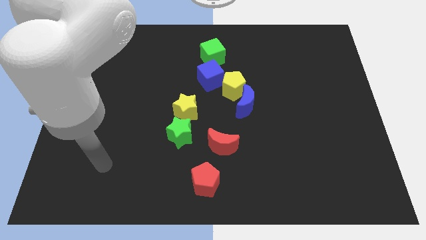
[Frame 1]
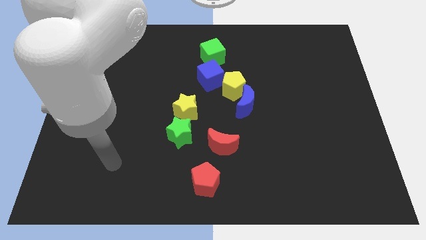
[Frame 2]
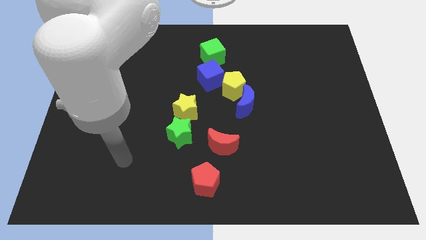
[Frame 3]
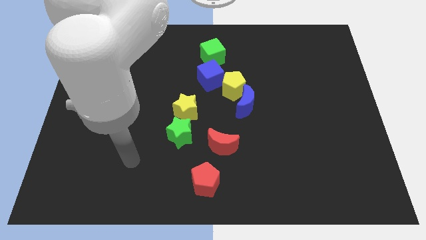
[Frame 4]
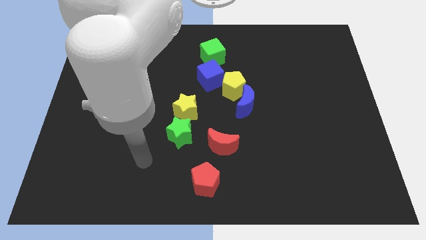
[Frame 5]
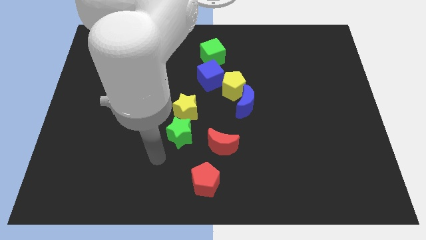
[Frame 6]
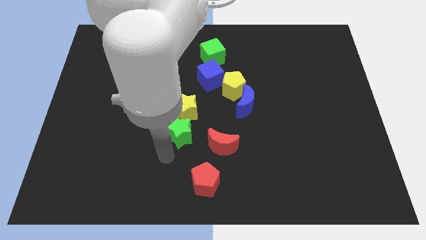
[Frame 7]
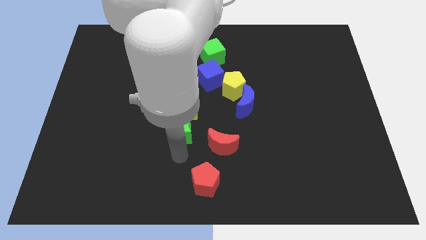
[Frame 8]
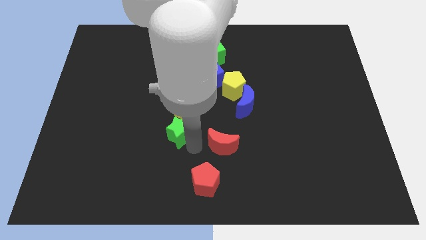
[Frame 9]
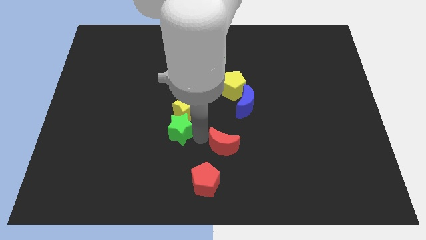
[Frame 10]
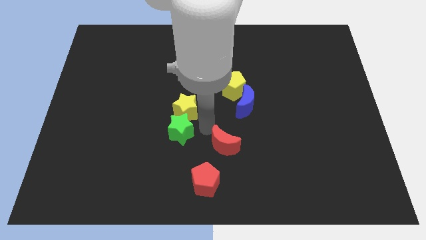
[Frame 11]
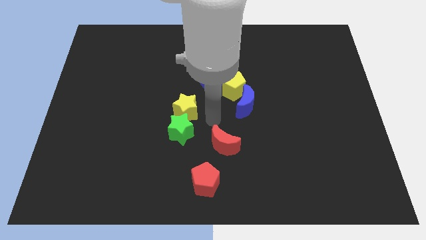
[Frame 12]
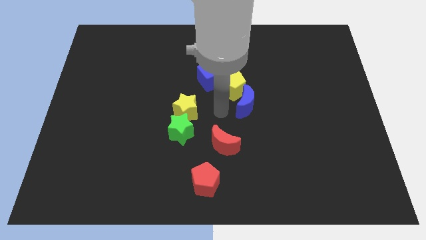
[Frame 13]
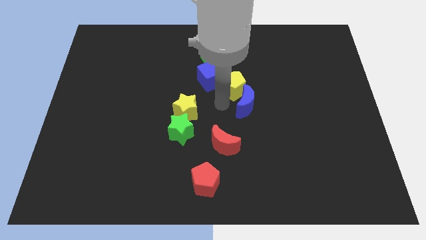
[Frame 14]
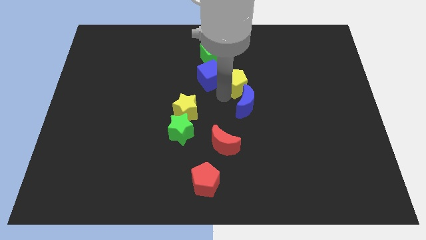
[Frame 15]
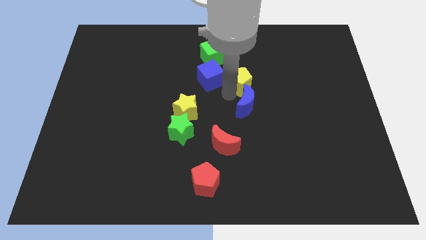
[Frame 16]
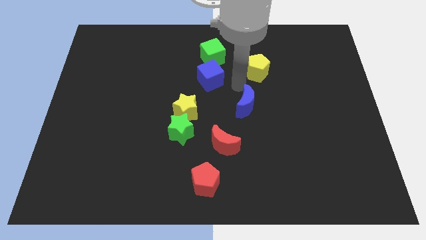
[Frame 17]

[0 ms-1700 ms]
move the blue moon away from the yellow pentagon

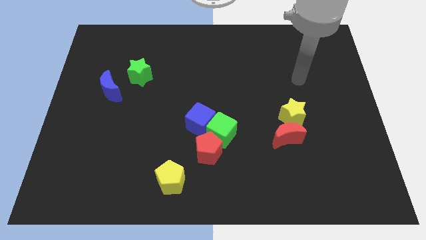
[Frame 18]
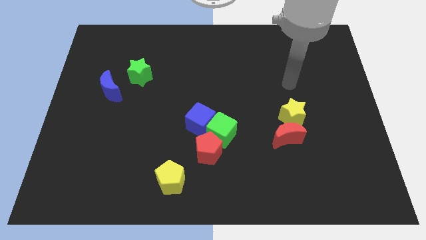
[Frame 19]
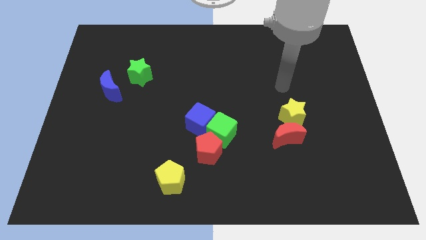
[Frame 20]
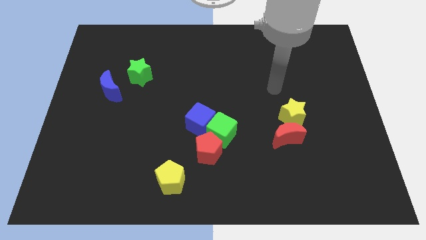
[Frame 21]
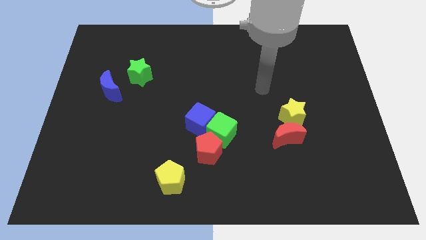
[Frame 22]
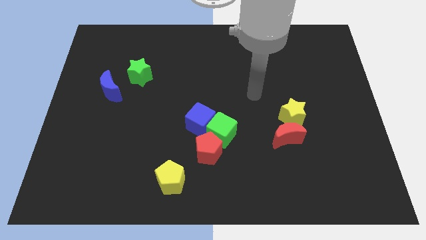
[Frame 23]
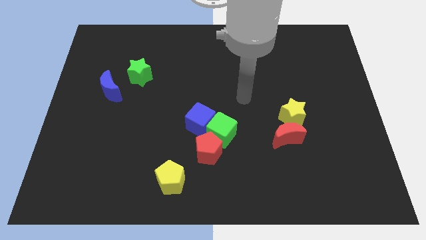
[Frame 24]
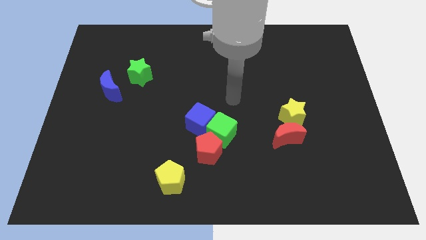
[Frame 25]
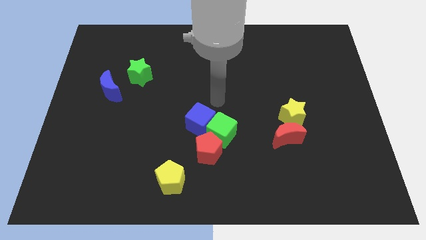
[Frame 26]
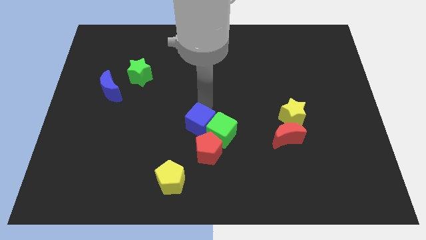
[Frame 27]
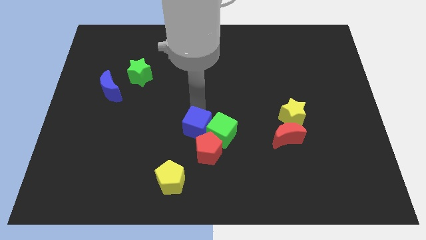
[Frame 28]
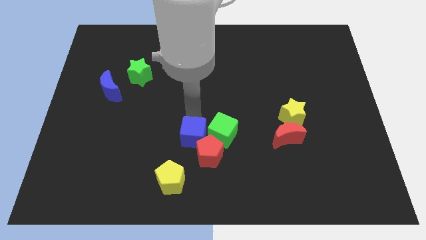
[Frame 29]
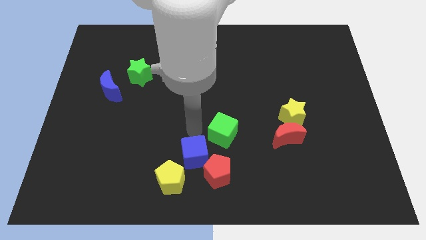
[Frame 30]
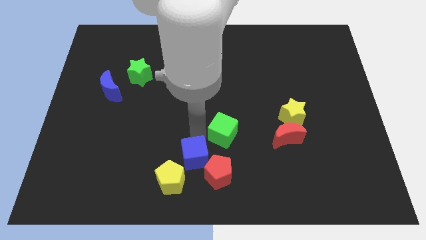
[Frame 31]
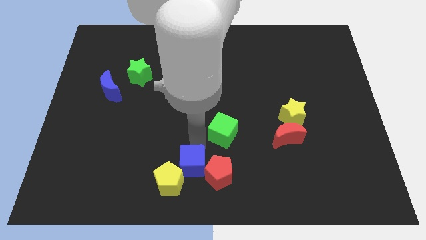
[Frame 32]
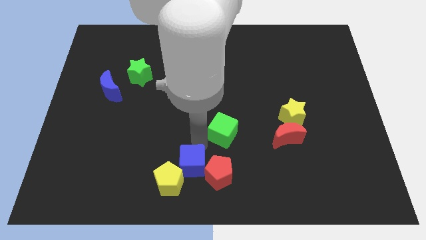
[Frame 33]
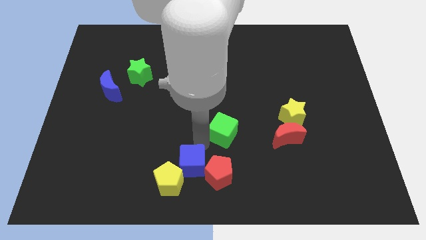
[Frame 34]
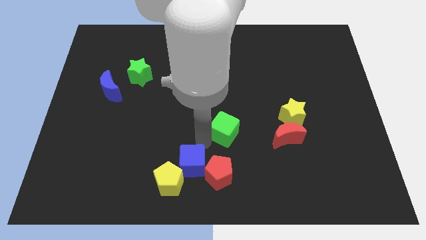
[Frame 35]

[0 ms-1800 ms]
separate the green cube from the blue cube and red pentagon

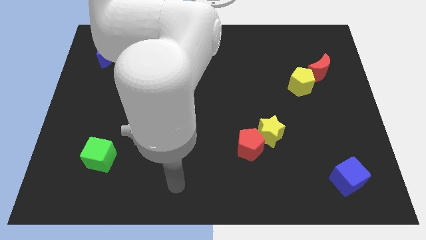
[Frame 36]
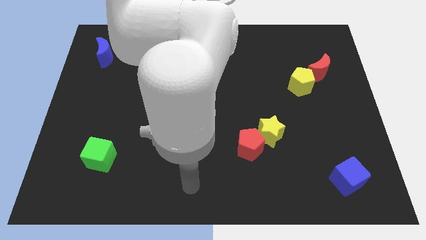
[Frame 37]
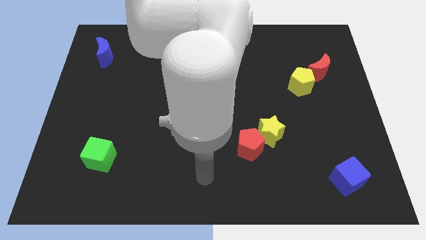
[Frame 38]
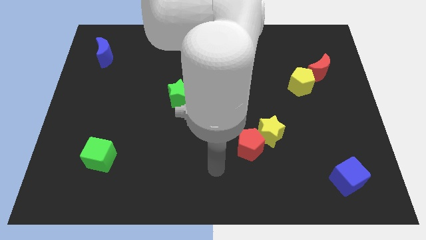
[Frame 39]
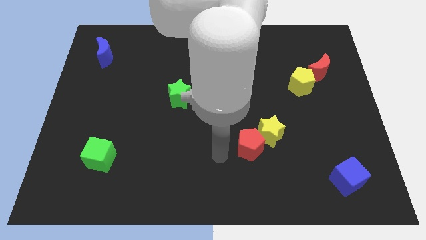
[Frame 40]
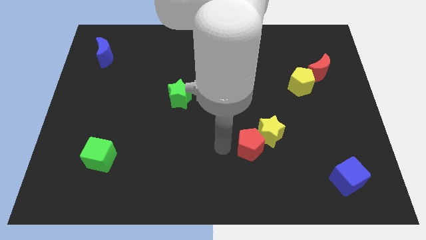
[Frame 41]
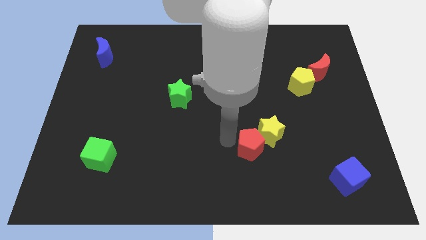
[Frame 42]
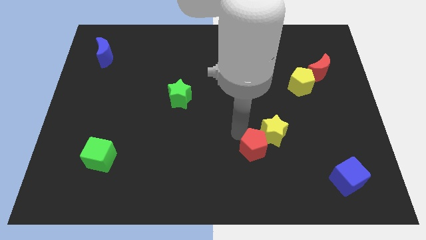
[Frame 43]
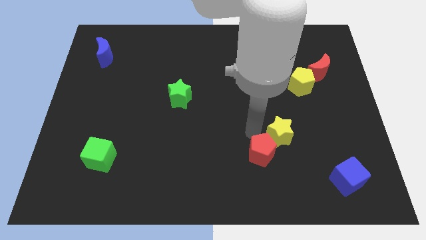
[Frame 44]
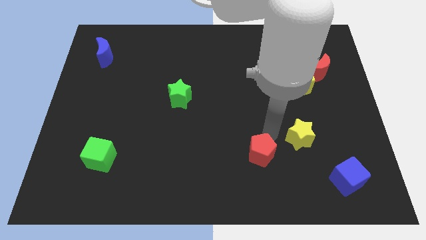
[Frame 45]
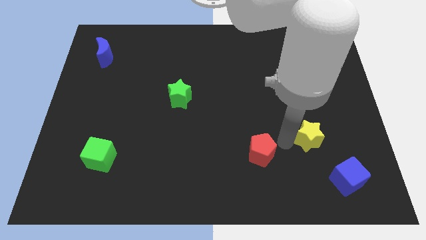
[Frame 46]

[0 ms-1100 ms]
separate the red pentagon from the yellow star

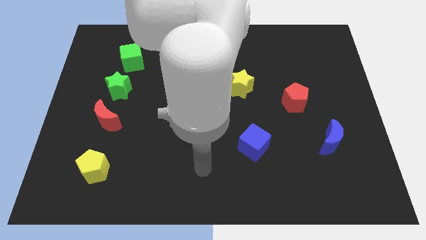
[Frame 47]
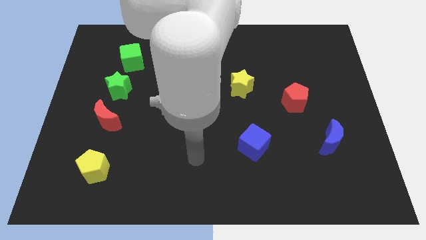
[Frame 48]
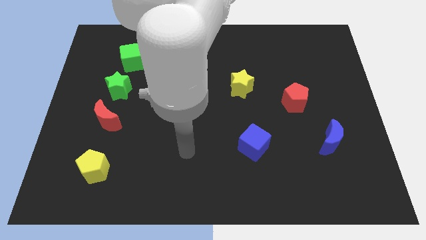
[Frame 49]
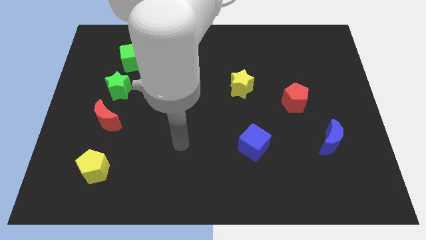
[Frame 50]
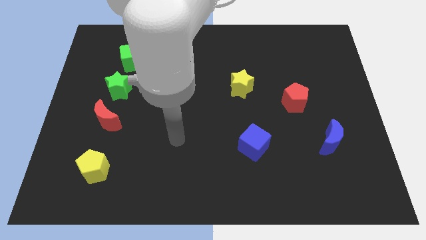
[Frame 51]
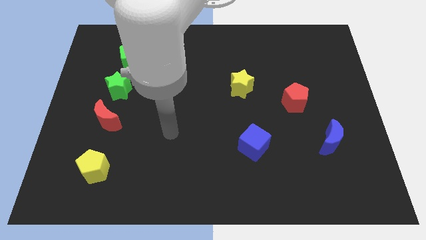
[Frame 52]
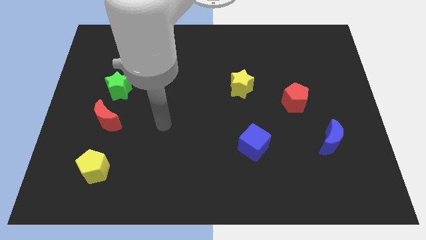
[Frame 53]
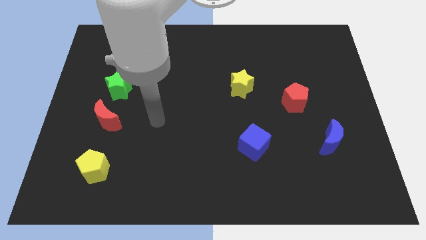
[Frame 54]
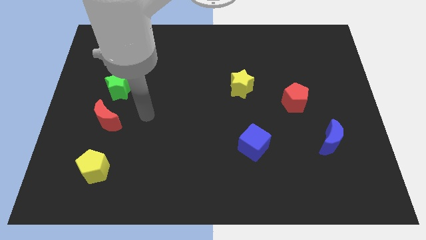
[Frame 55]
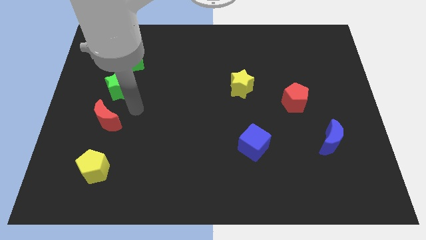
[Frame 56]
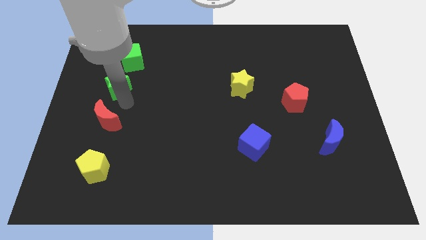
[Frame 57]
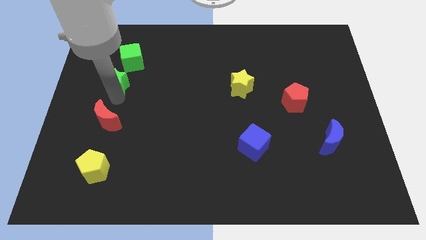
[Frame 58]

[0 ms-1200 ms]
move the red moon away from the green star

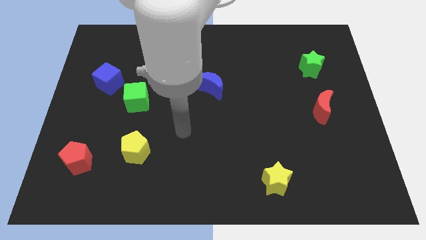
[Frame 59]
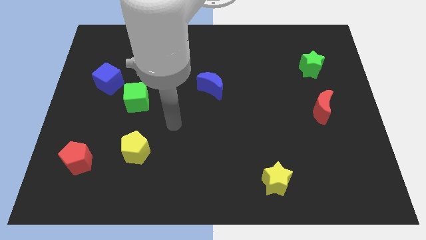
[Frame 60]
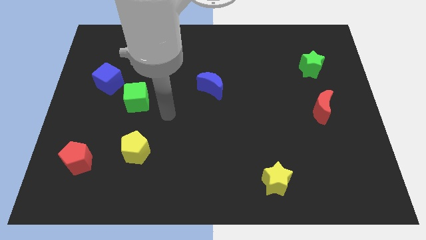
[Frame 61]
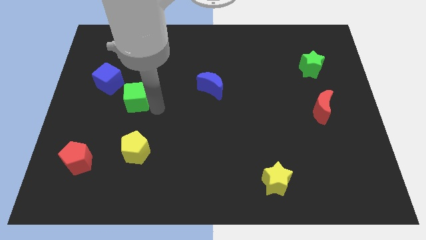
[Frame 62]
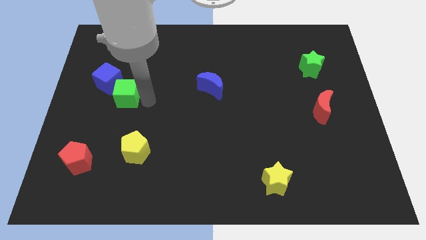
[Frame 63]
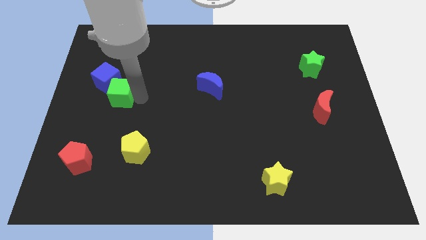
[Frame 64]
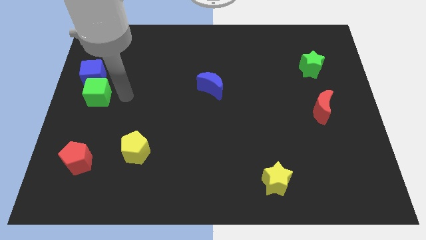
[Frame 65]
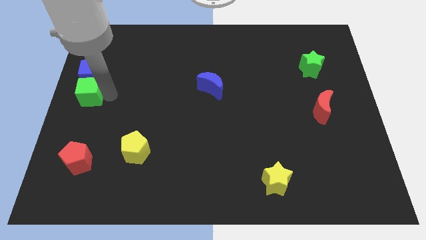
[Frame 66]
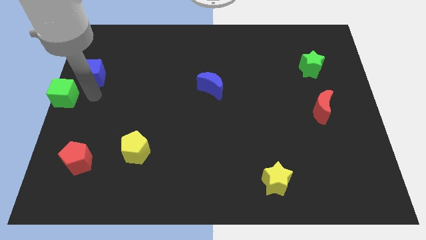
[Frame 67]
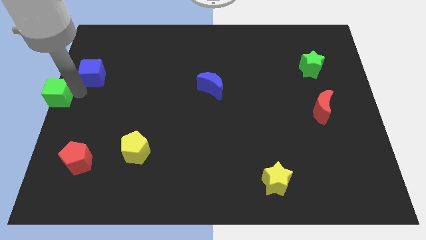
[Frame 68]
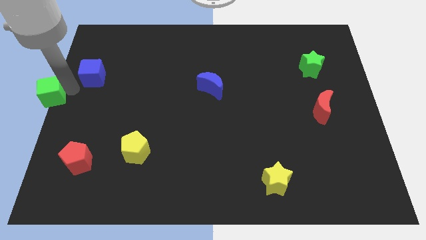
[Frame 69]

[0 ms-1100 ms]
move the blue cube away from the green cube

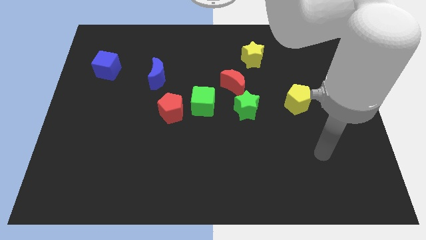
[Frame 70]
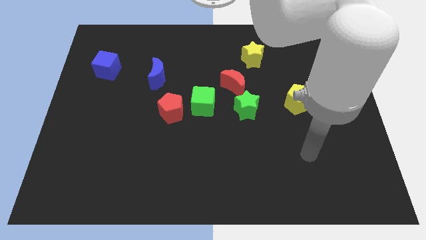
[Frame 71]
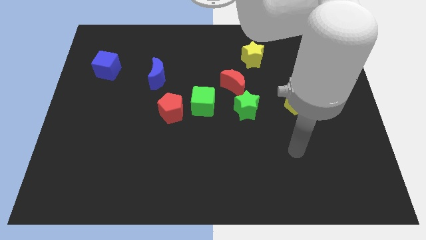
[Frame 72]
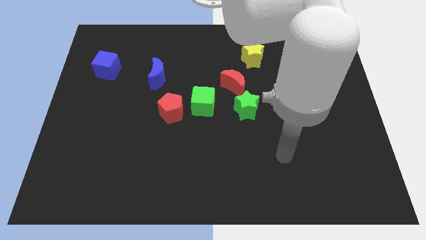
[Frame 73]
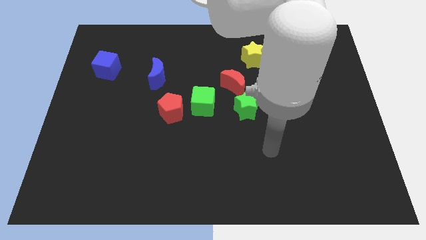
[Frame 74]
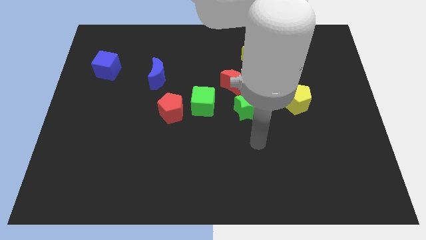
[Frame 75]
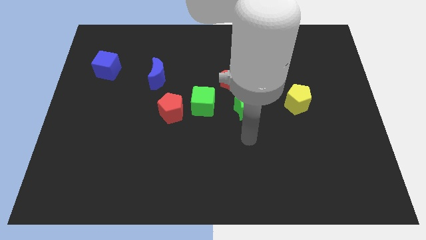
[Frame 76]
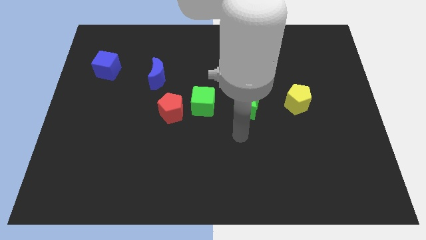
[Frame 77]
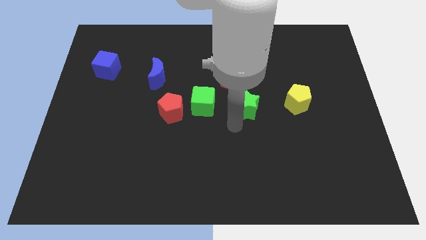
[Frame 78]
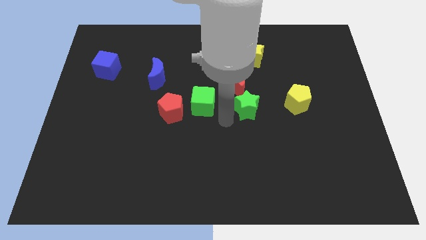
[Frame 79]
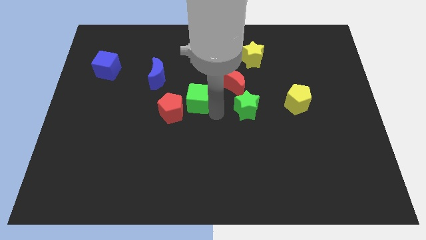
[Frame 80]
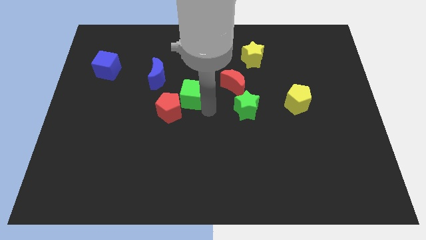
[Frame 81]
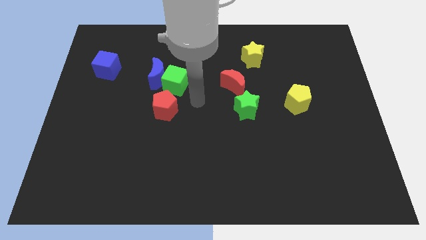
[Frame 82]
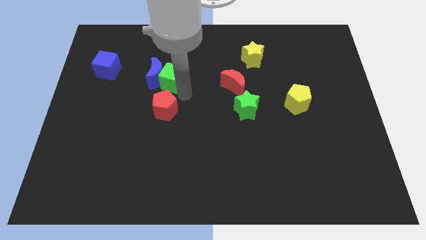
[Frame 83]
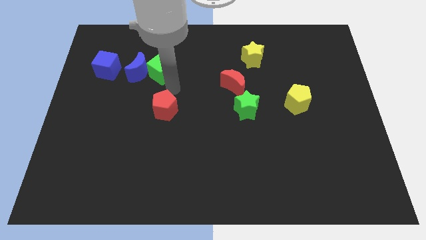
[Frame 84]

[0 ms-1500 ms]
move the red pentagon away from the green cube

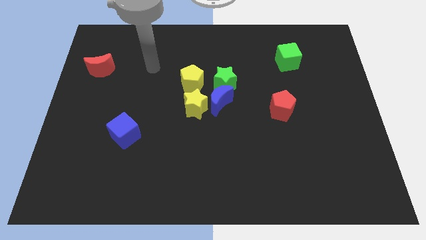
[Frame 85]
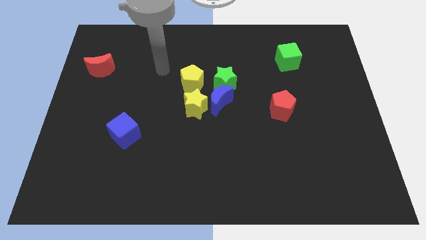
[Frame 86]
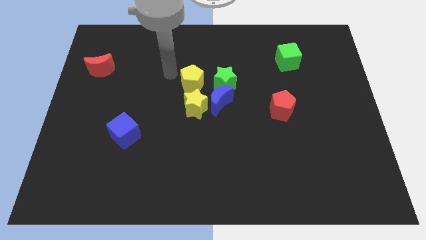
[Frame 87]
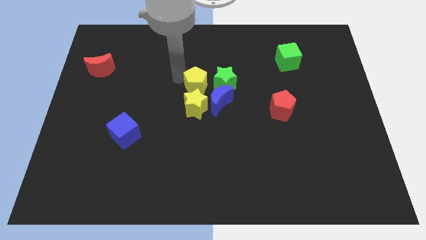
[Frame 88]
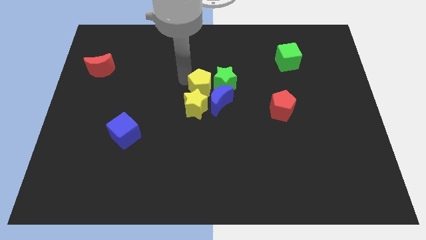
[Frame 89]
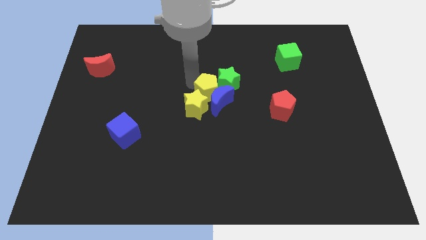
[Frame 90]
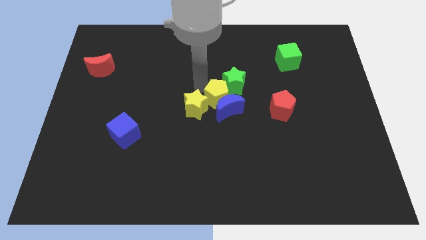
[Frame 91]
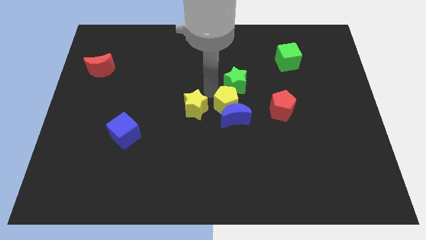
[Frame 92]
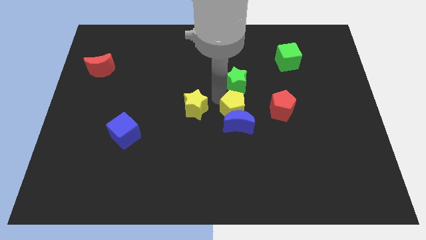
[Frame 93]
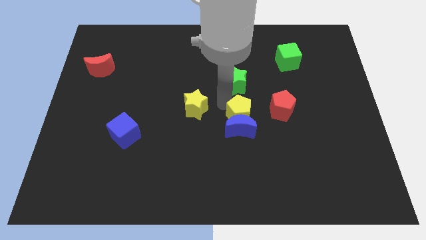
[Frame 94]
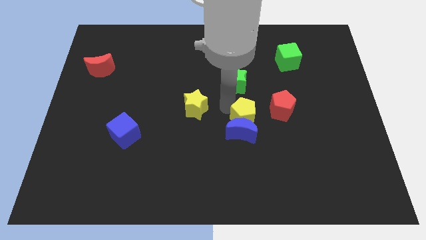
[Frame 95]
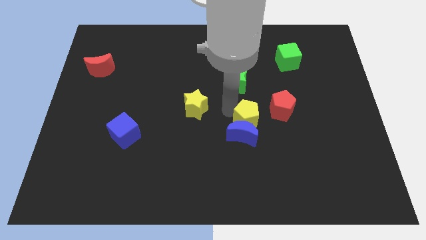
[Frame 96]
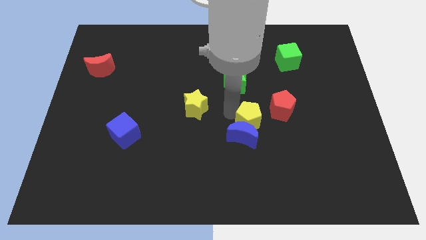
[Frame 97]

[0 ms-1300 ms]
pull the blue moon apart from the group
